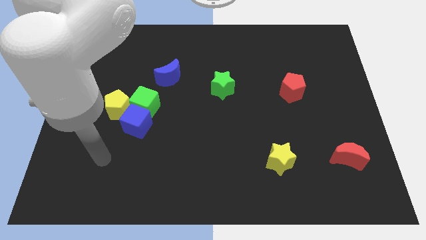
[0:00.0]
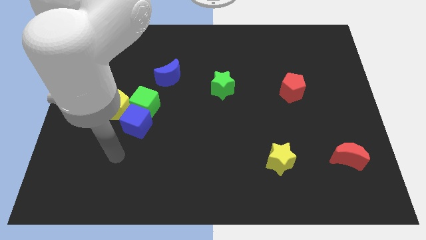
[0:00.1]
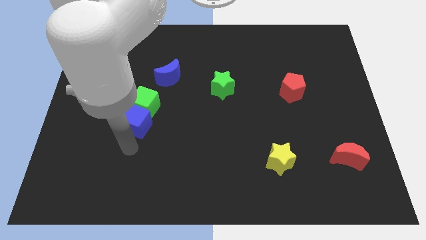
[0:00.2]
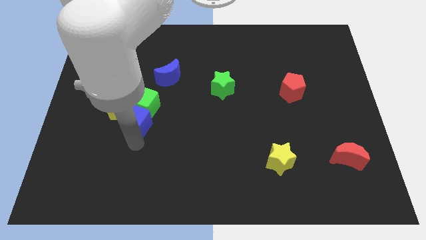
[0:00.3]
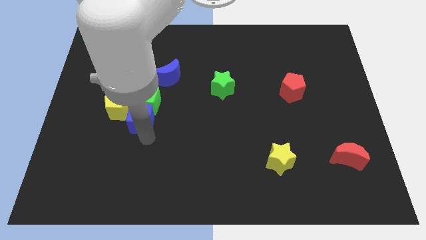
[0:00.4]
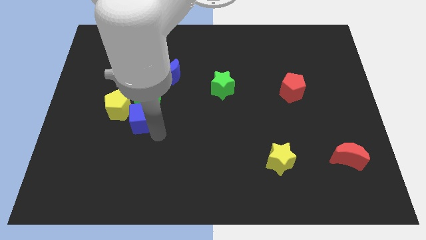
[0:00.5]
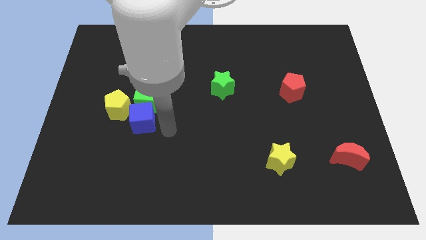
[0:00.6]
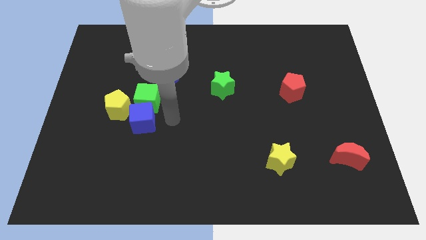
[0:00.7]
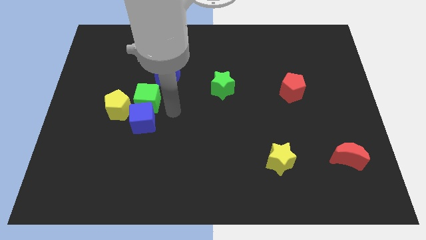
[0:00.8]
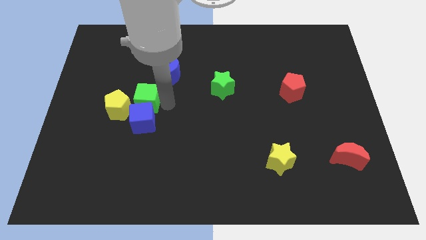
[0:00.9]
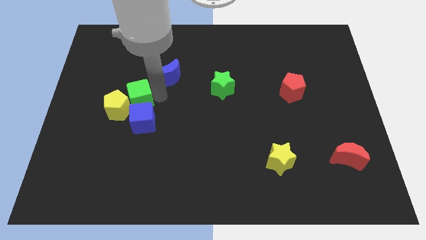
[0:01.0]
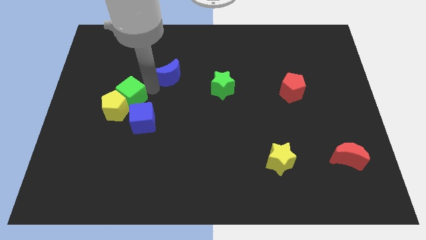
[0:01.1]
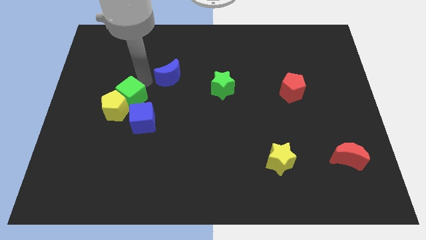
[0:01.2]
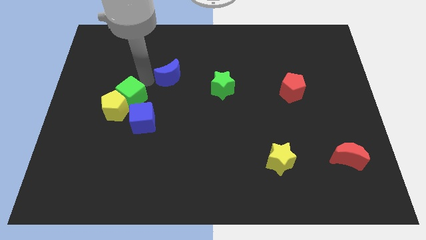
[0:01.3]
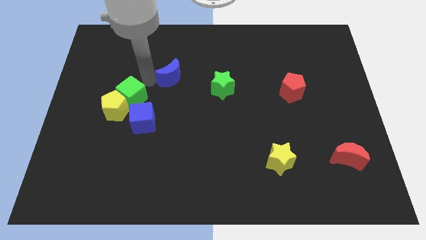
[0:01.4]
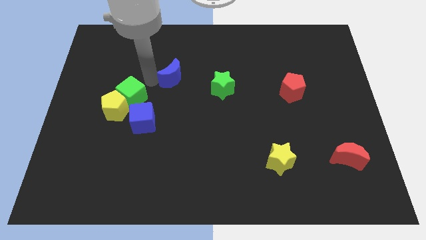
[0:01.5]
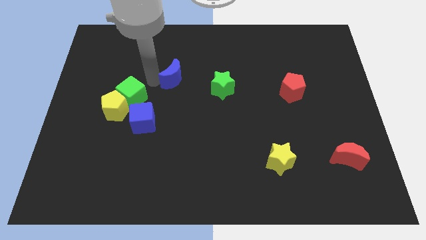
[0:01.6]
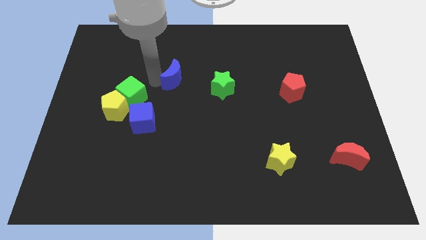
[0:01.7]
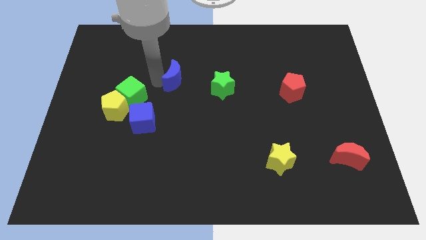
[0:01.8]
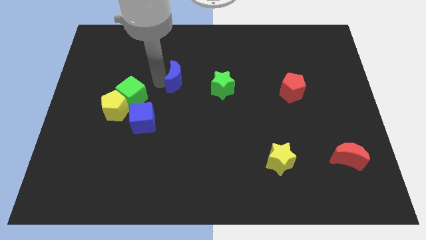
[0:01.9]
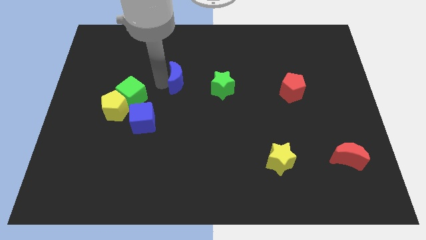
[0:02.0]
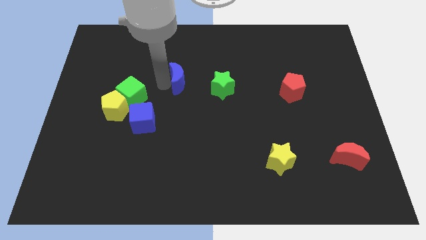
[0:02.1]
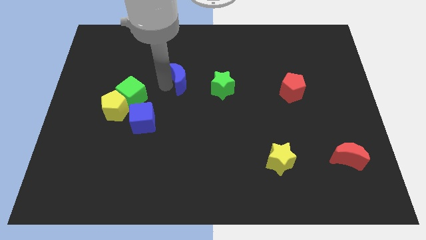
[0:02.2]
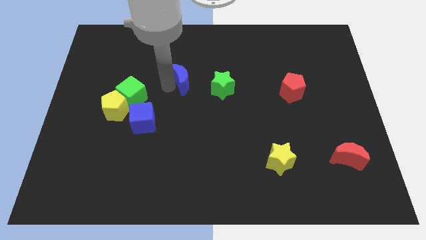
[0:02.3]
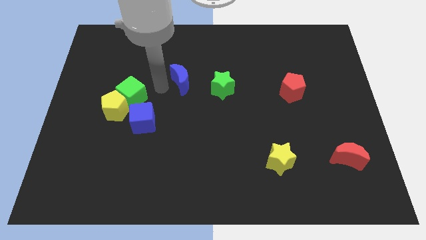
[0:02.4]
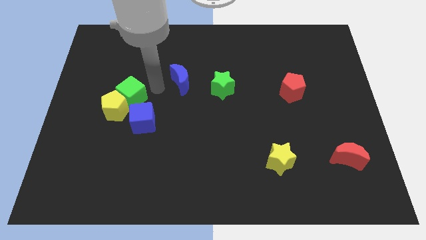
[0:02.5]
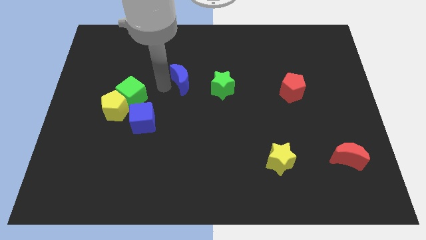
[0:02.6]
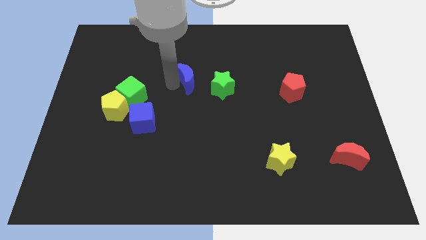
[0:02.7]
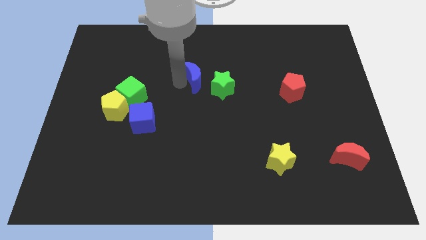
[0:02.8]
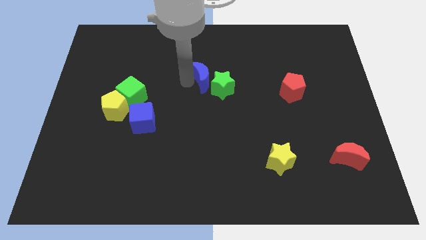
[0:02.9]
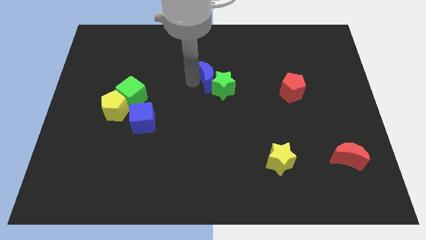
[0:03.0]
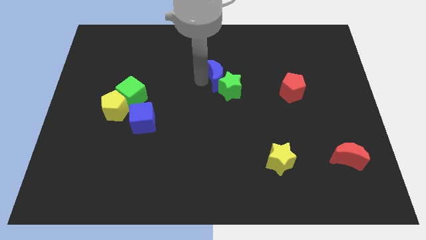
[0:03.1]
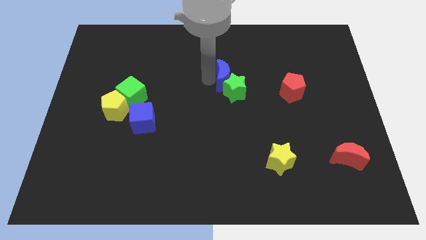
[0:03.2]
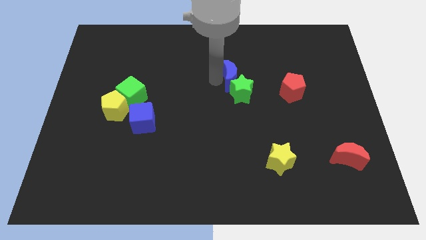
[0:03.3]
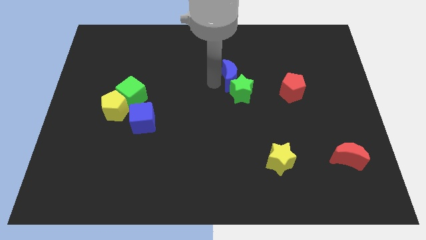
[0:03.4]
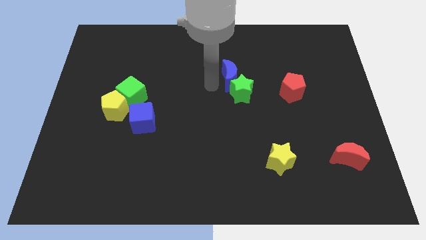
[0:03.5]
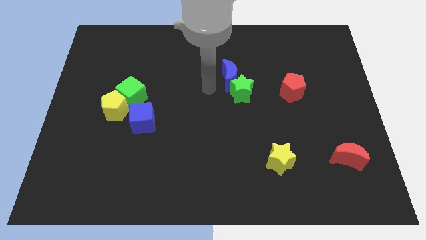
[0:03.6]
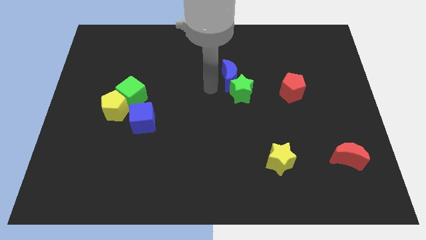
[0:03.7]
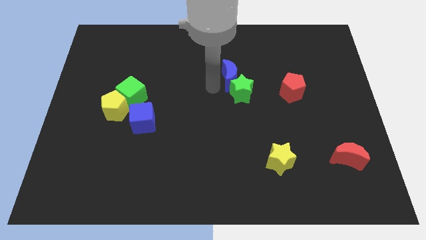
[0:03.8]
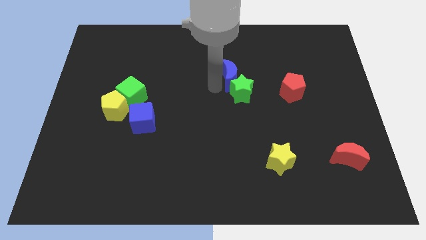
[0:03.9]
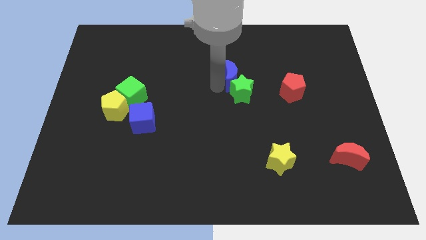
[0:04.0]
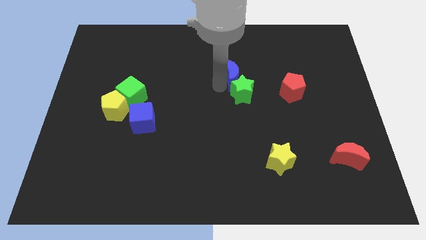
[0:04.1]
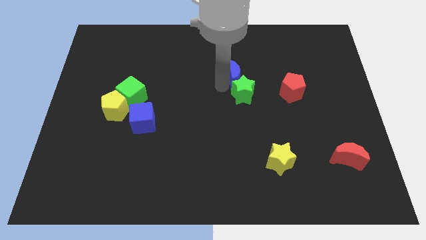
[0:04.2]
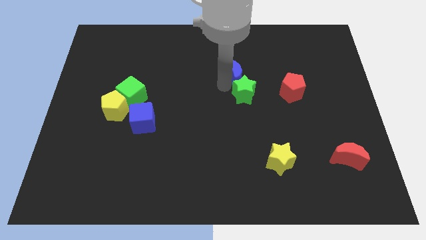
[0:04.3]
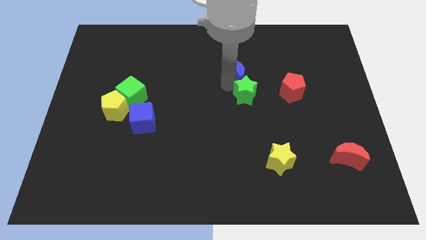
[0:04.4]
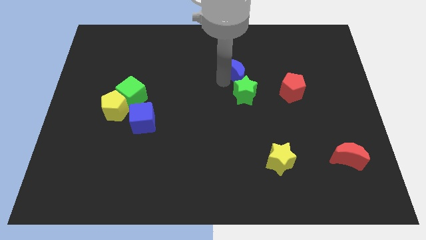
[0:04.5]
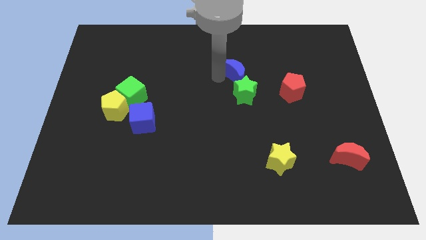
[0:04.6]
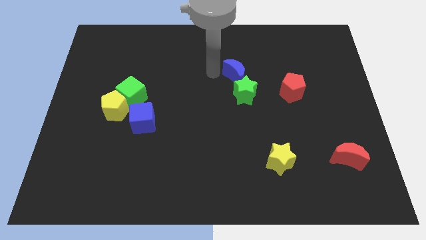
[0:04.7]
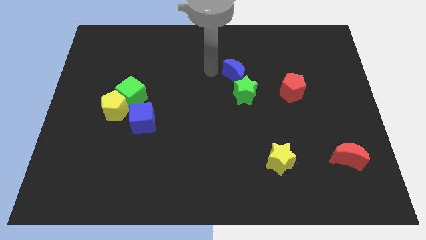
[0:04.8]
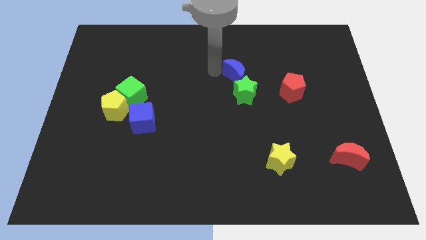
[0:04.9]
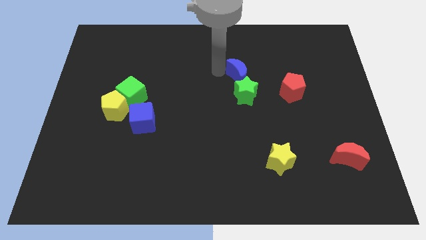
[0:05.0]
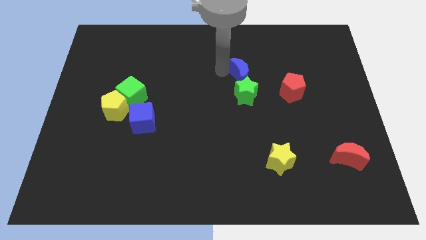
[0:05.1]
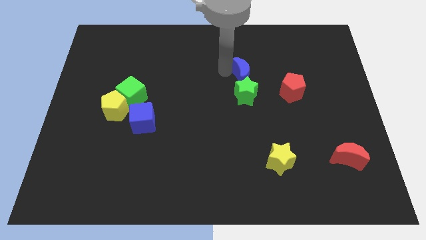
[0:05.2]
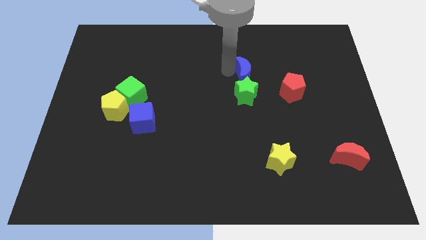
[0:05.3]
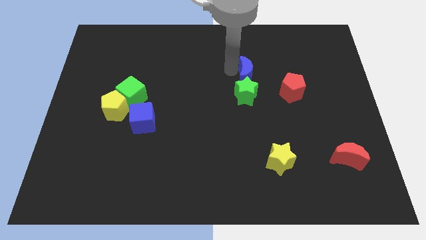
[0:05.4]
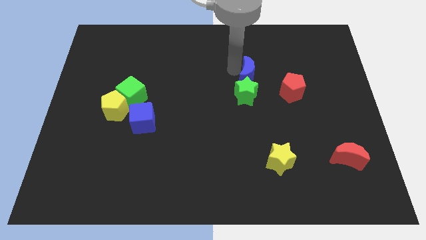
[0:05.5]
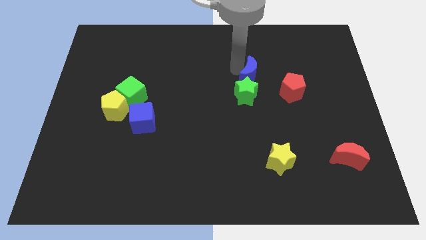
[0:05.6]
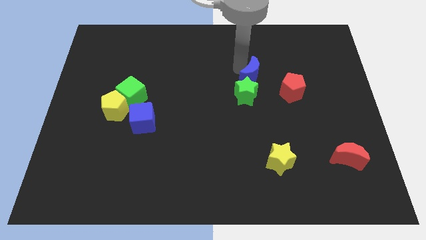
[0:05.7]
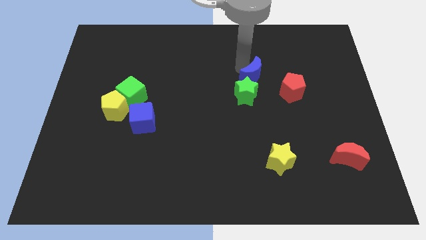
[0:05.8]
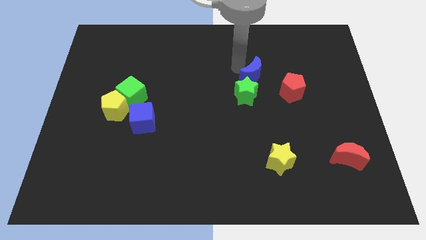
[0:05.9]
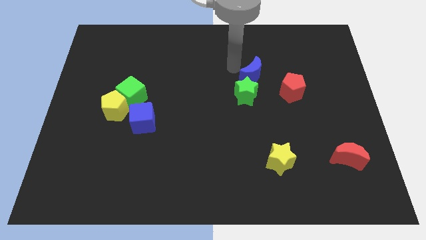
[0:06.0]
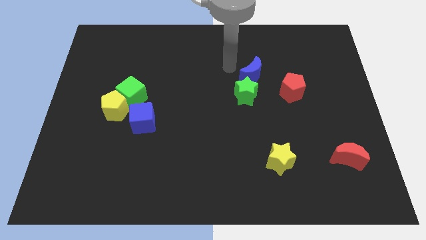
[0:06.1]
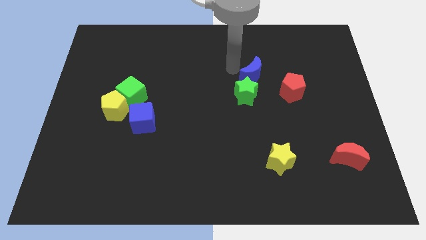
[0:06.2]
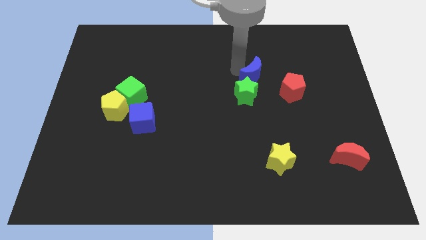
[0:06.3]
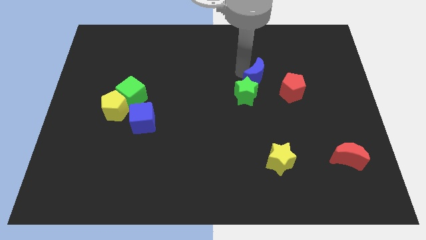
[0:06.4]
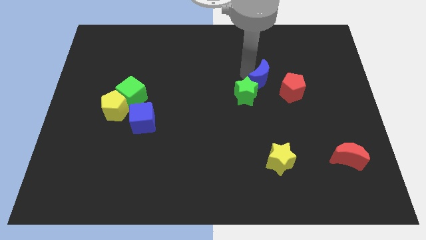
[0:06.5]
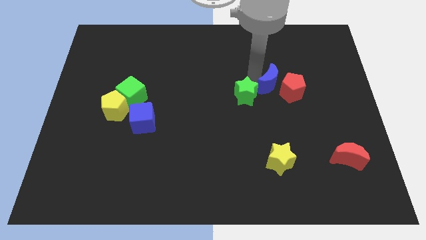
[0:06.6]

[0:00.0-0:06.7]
move the blue moon close to the red pentagon

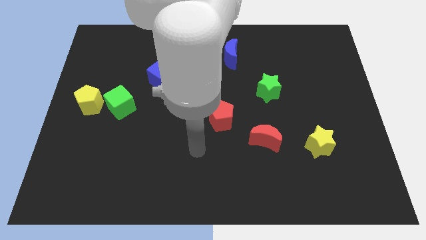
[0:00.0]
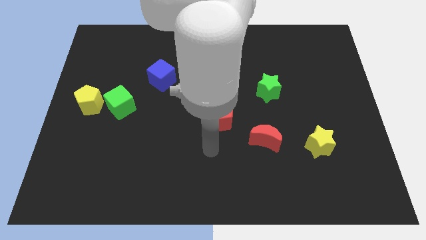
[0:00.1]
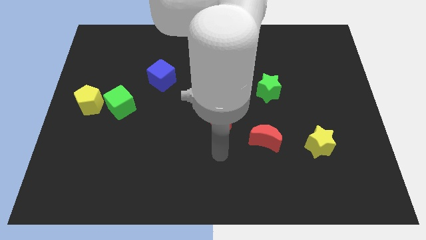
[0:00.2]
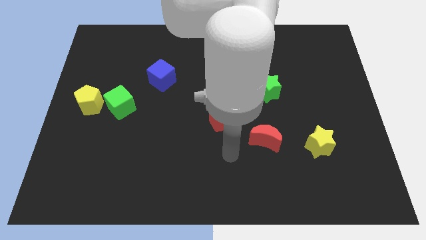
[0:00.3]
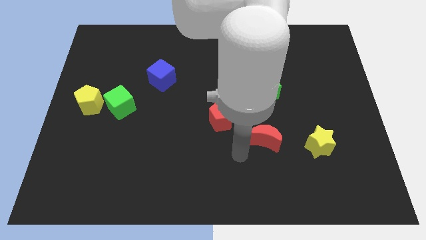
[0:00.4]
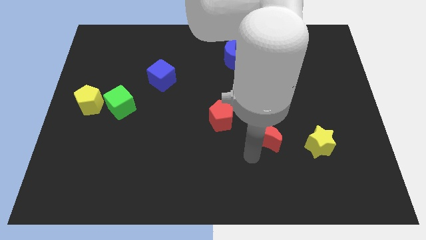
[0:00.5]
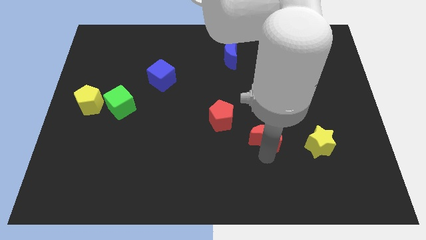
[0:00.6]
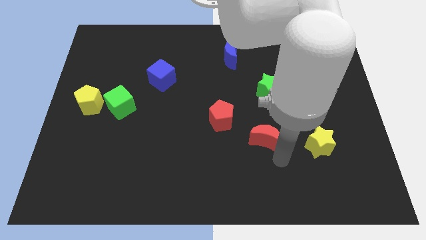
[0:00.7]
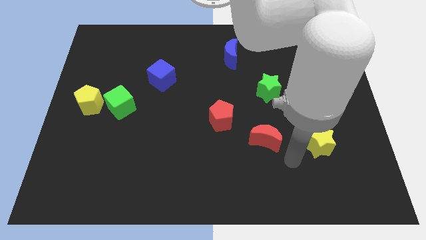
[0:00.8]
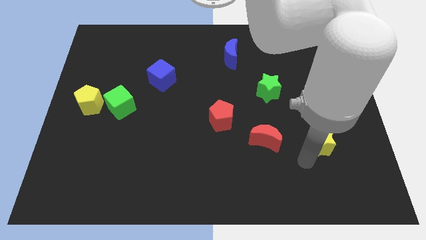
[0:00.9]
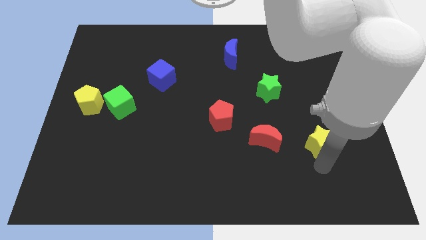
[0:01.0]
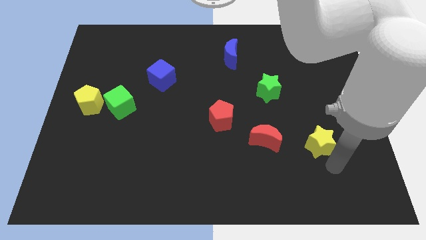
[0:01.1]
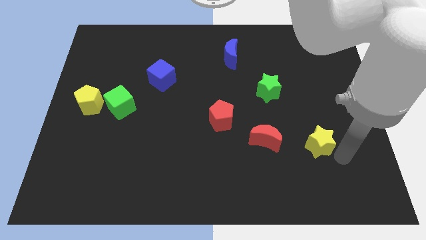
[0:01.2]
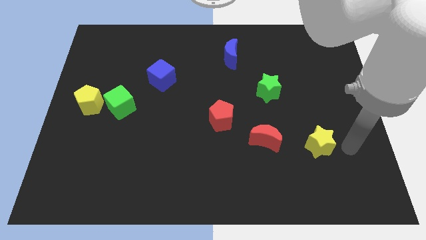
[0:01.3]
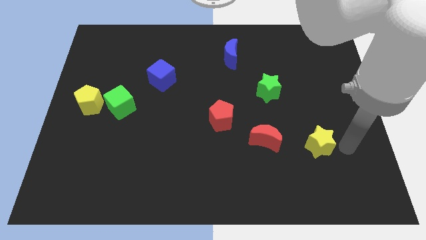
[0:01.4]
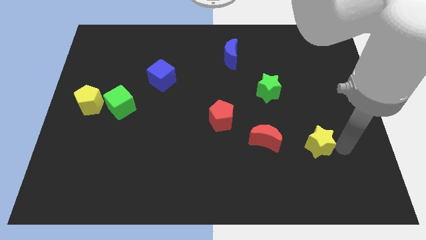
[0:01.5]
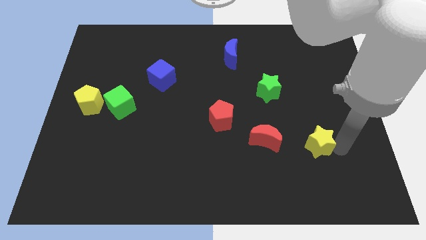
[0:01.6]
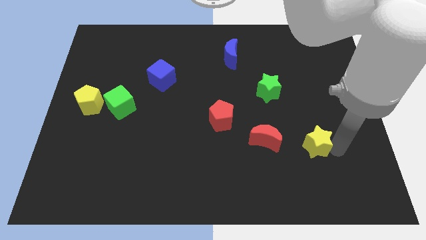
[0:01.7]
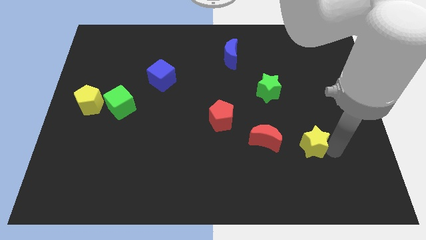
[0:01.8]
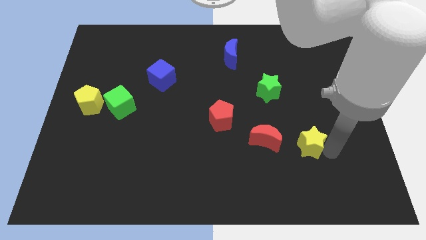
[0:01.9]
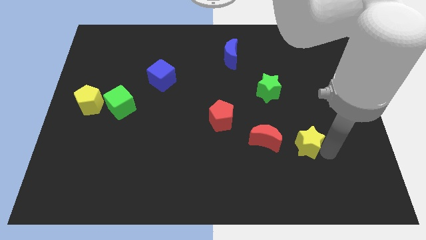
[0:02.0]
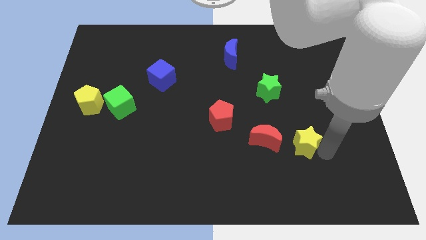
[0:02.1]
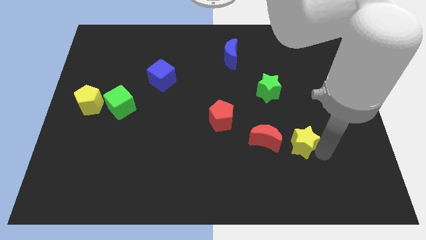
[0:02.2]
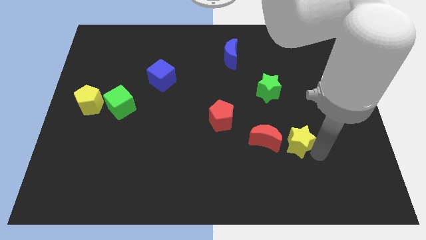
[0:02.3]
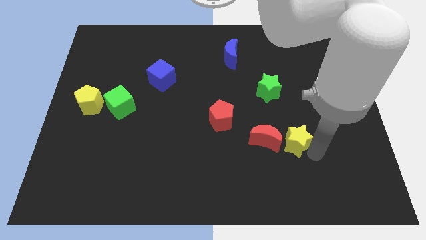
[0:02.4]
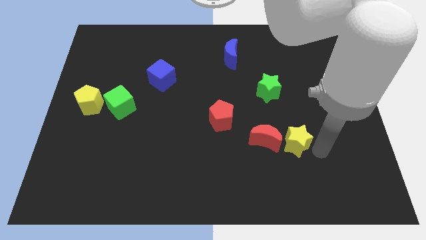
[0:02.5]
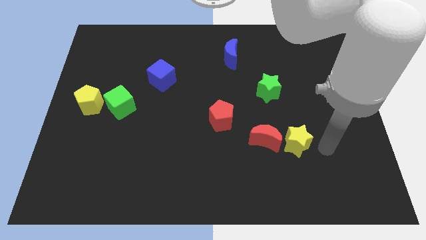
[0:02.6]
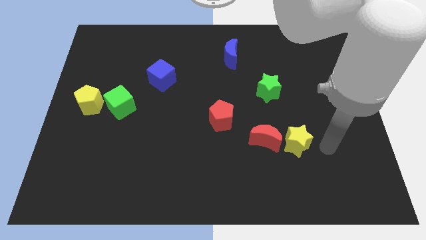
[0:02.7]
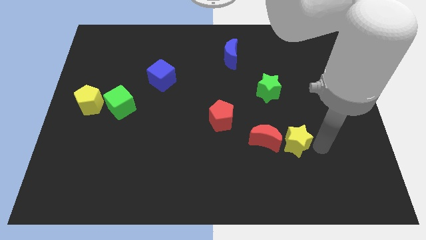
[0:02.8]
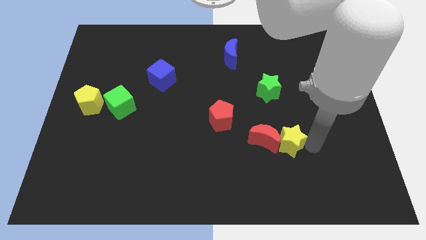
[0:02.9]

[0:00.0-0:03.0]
push the yellow star close to the red moon
